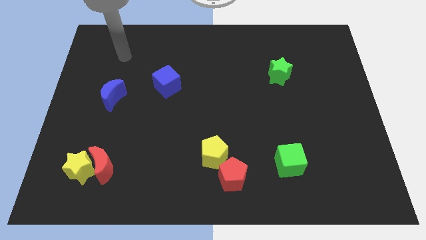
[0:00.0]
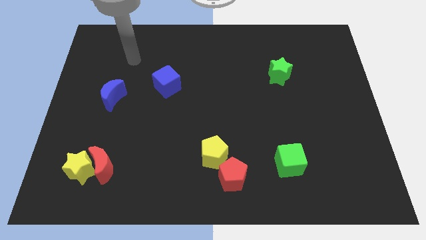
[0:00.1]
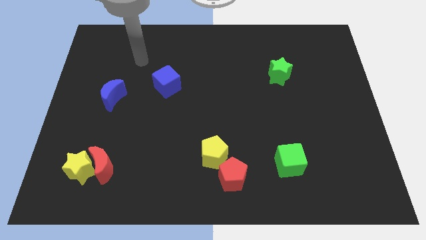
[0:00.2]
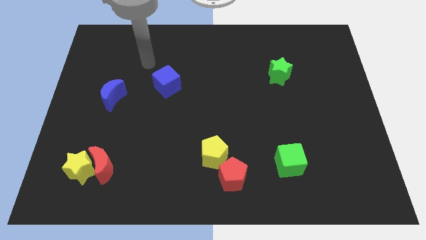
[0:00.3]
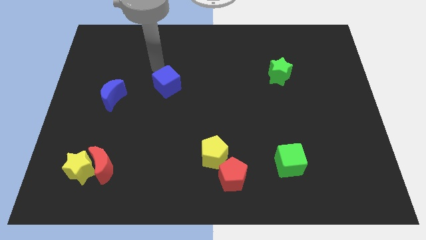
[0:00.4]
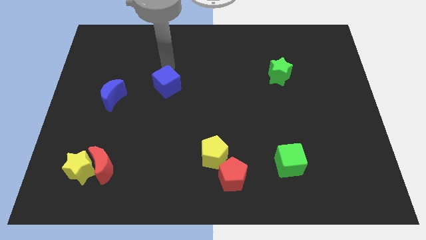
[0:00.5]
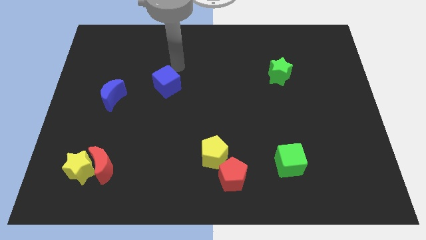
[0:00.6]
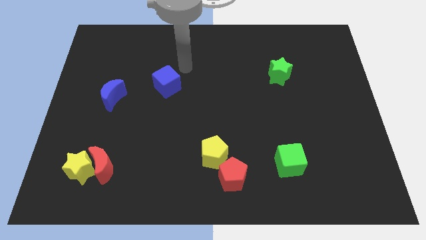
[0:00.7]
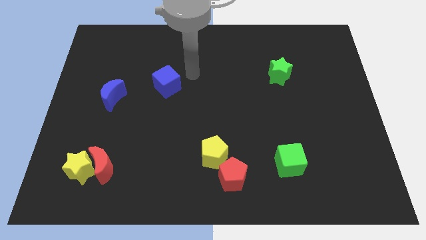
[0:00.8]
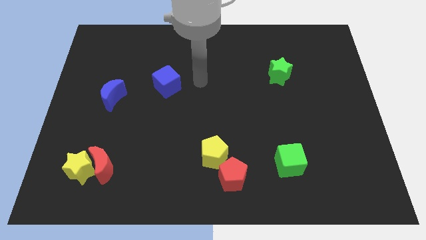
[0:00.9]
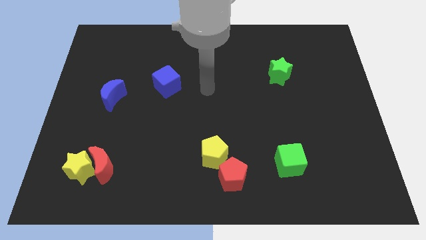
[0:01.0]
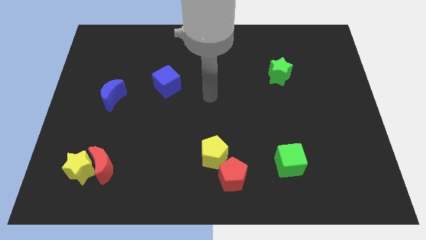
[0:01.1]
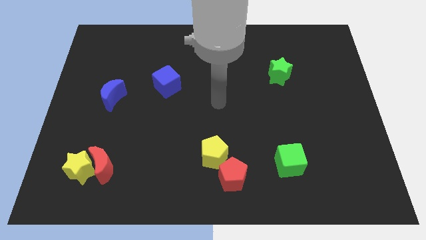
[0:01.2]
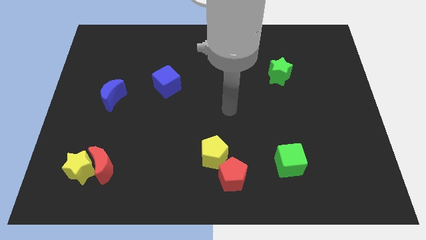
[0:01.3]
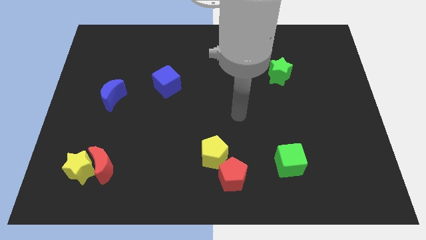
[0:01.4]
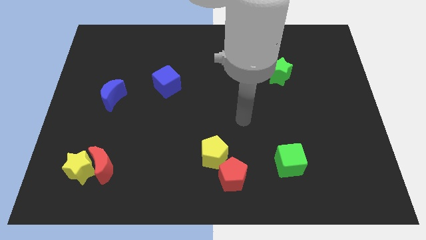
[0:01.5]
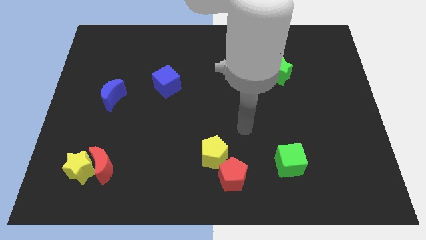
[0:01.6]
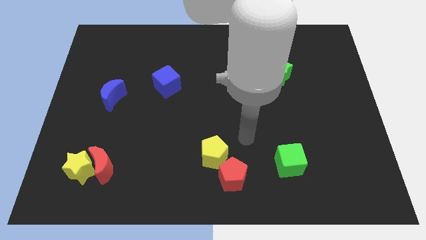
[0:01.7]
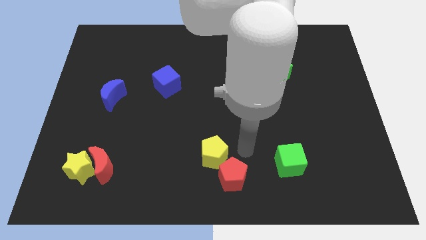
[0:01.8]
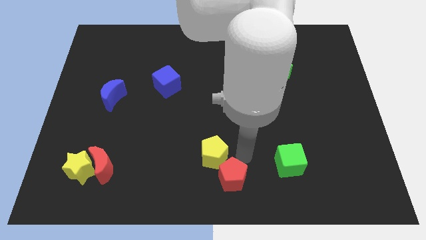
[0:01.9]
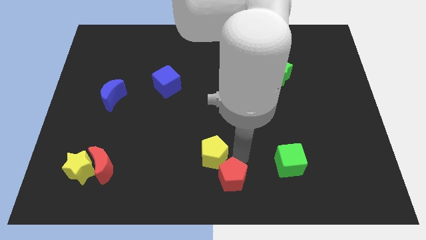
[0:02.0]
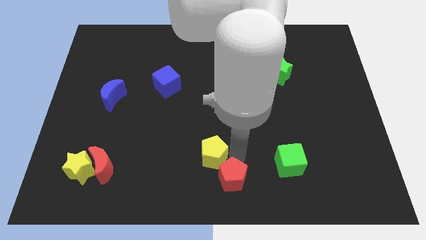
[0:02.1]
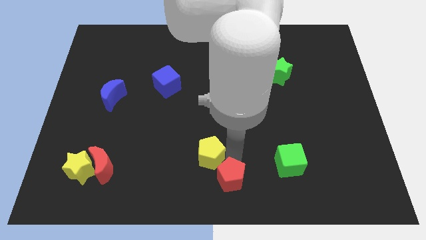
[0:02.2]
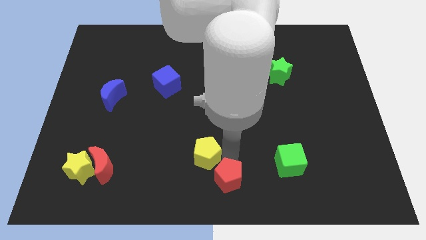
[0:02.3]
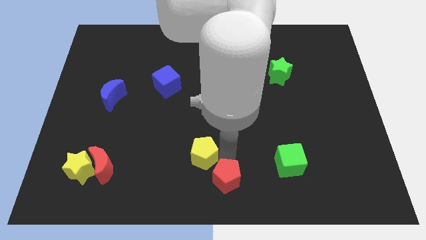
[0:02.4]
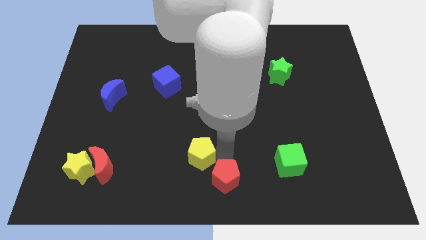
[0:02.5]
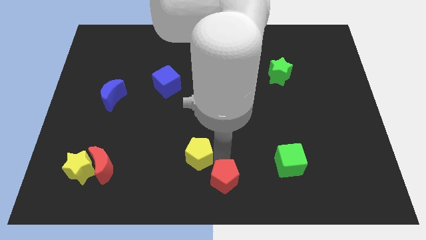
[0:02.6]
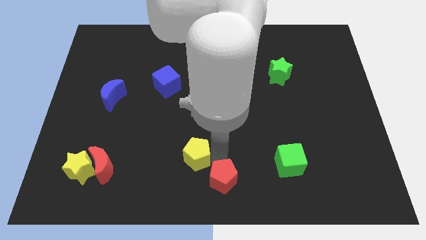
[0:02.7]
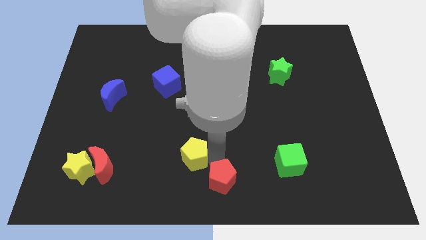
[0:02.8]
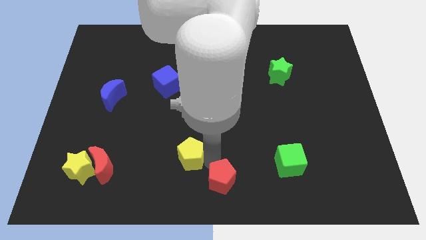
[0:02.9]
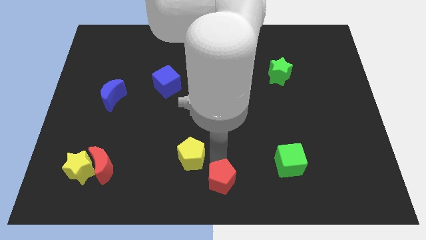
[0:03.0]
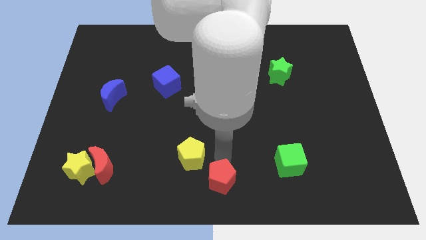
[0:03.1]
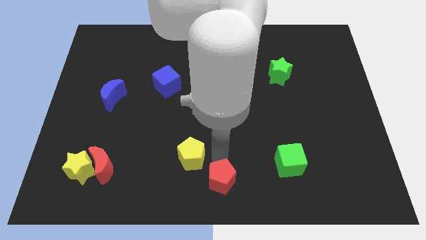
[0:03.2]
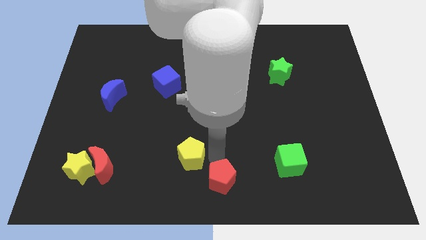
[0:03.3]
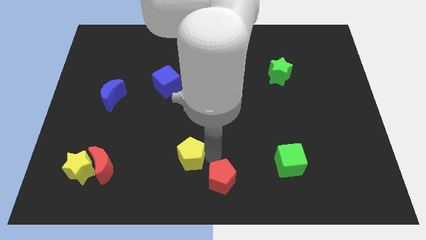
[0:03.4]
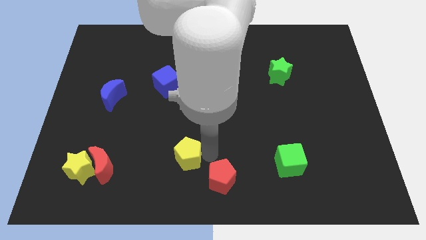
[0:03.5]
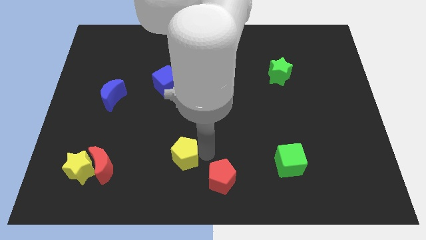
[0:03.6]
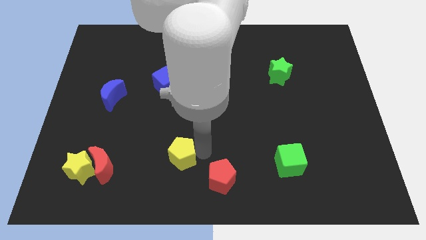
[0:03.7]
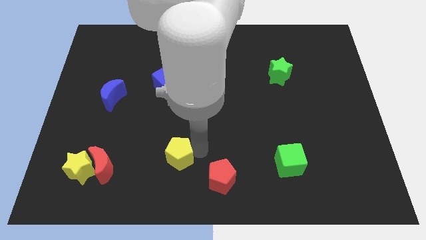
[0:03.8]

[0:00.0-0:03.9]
slide the yellow pentagon to the left a little bit

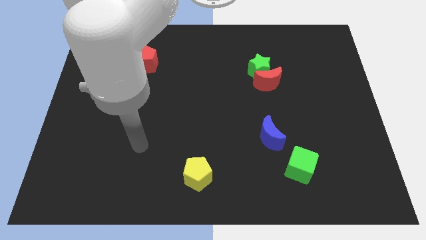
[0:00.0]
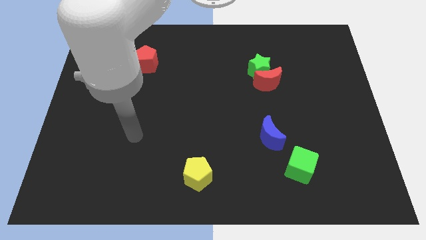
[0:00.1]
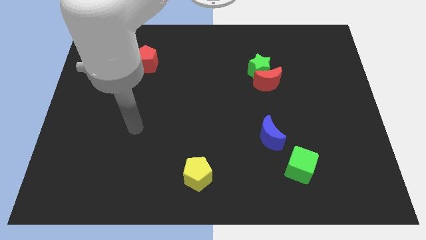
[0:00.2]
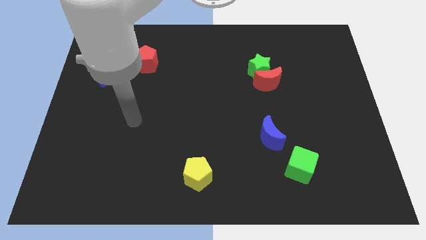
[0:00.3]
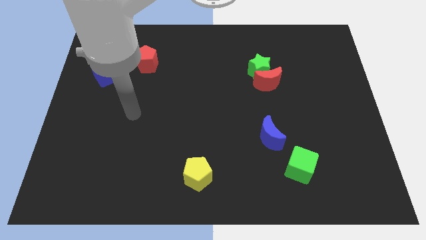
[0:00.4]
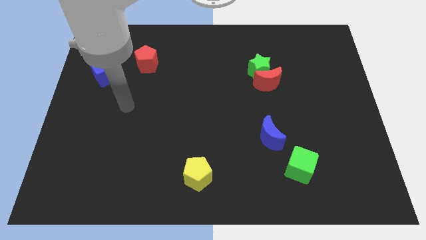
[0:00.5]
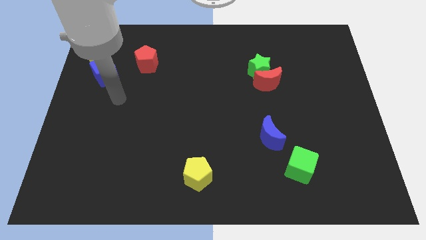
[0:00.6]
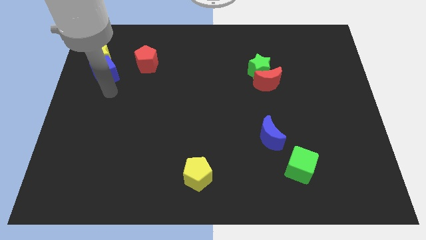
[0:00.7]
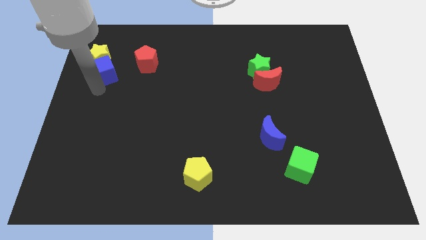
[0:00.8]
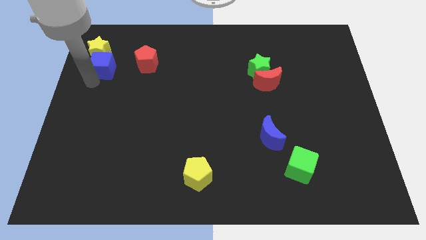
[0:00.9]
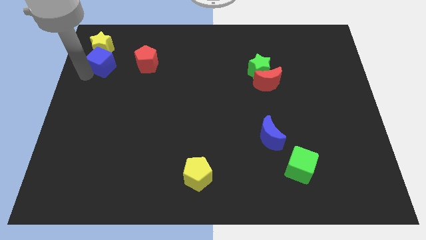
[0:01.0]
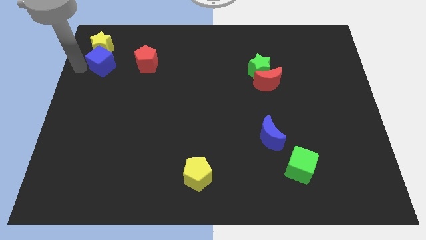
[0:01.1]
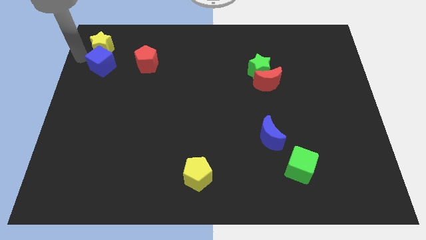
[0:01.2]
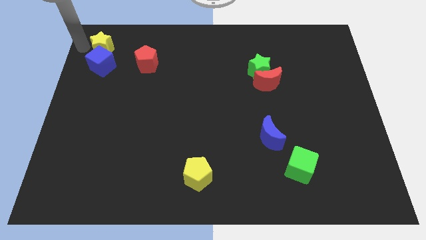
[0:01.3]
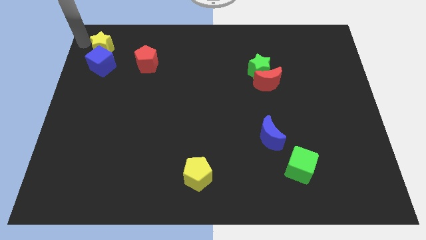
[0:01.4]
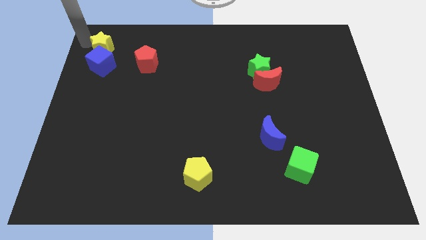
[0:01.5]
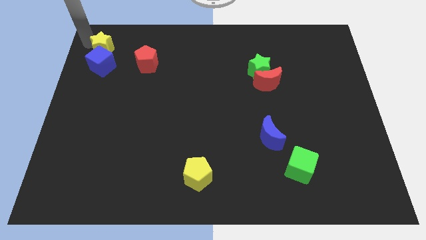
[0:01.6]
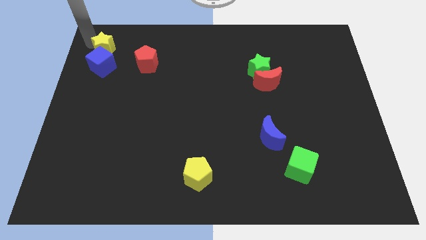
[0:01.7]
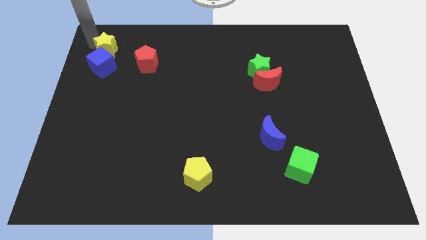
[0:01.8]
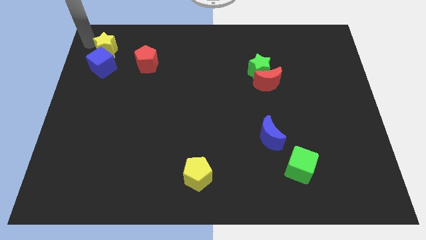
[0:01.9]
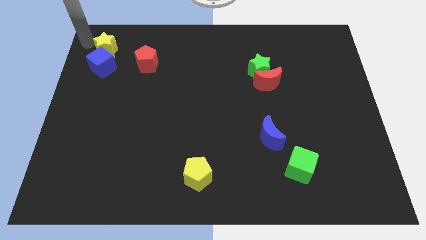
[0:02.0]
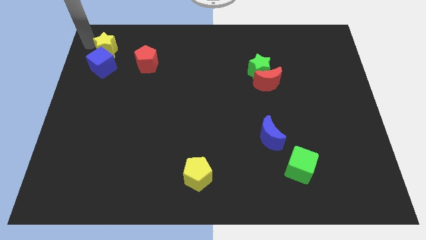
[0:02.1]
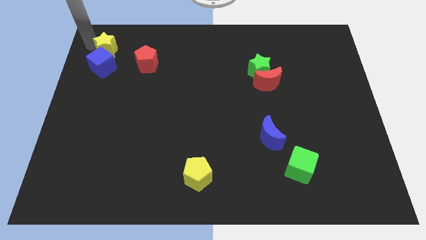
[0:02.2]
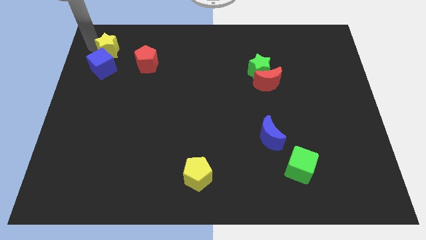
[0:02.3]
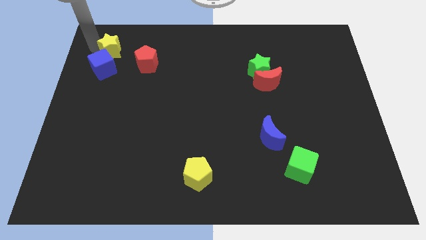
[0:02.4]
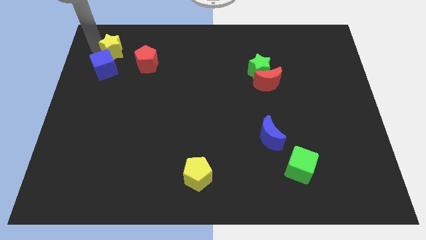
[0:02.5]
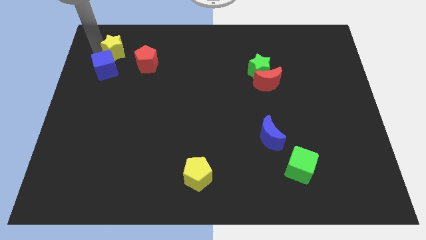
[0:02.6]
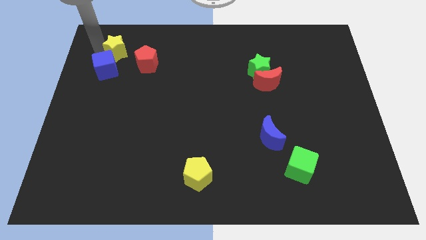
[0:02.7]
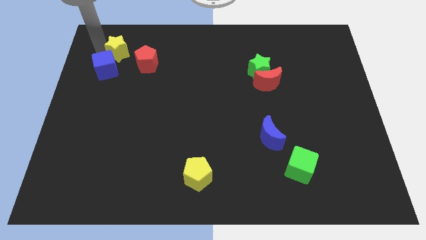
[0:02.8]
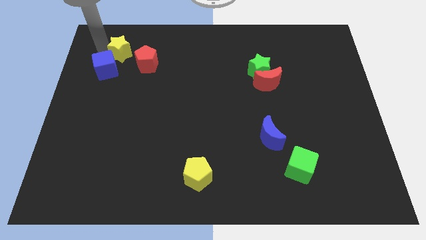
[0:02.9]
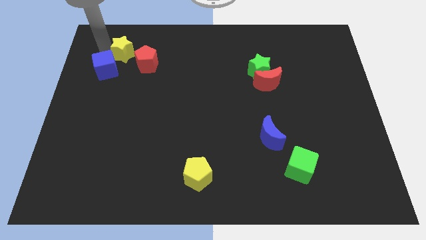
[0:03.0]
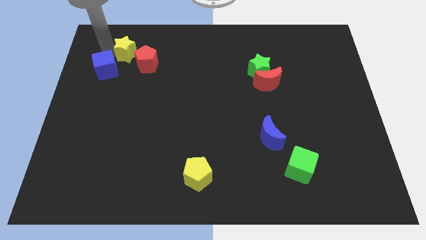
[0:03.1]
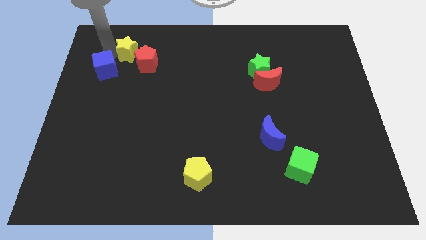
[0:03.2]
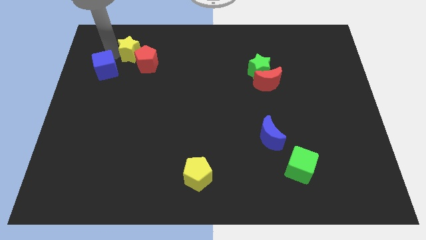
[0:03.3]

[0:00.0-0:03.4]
slightly slide the yellow star right

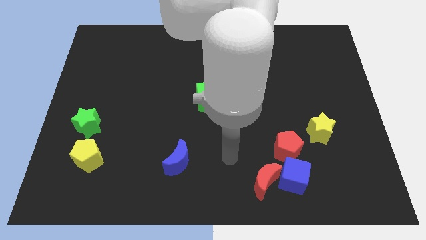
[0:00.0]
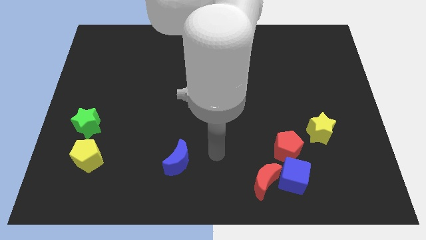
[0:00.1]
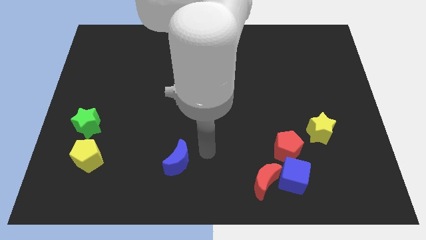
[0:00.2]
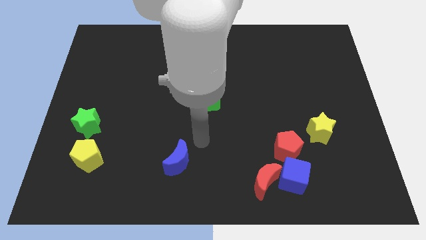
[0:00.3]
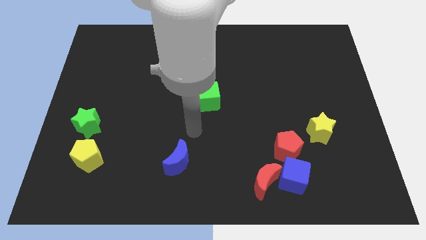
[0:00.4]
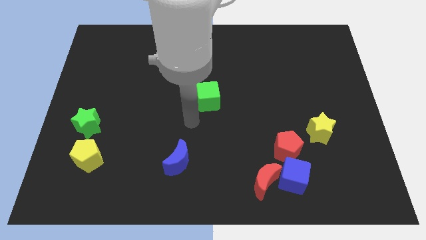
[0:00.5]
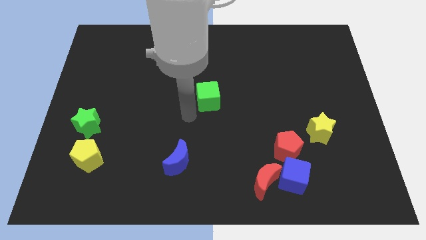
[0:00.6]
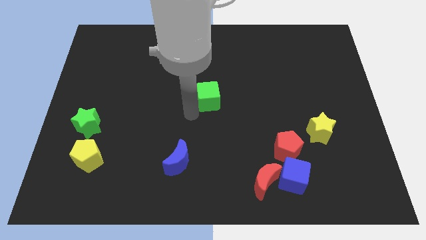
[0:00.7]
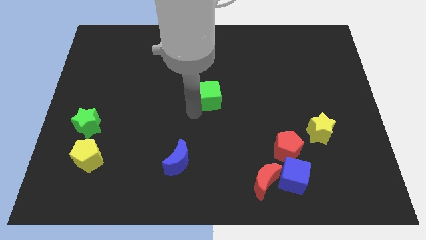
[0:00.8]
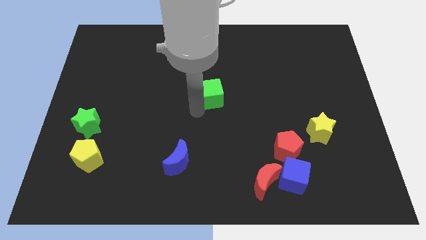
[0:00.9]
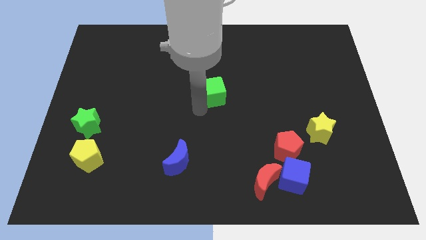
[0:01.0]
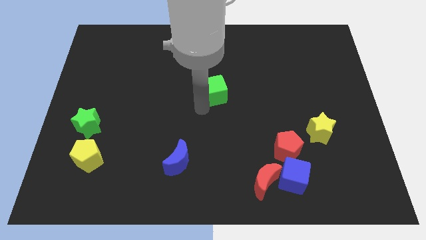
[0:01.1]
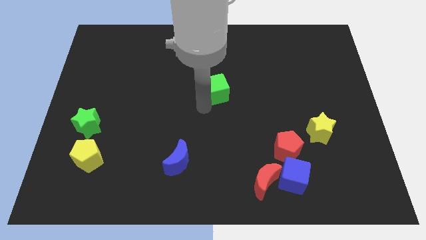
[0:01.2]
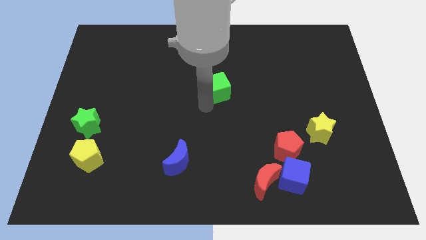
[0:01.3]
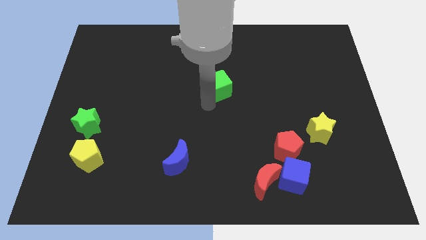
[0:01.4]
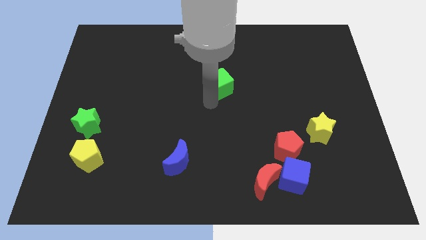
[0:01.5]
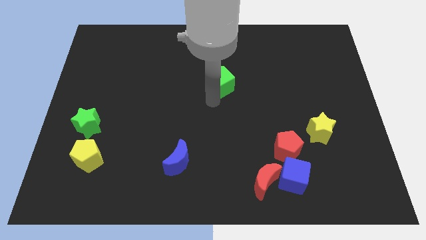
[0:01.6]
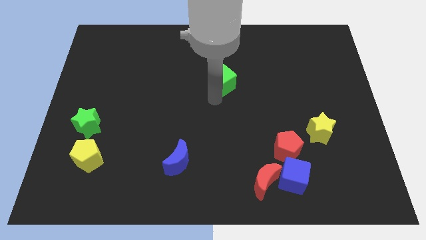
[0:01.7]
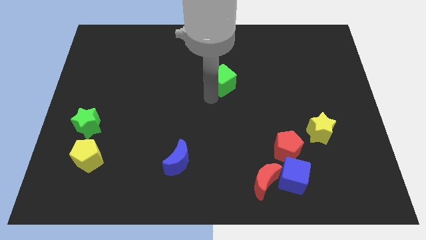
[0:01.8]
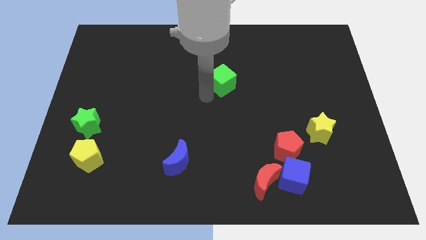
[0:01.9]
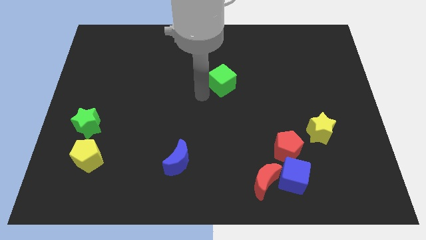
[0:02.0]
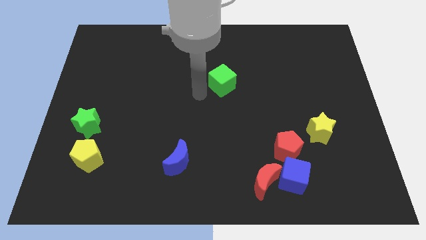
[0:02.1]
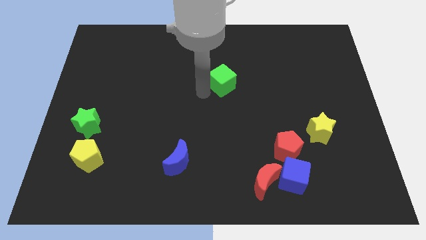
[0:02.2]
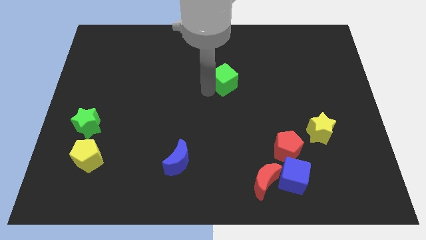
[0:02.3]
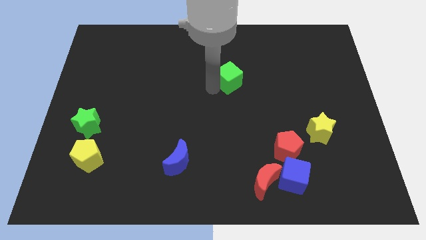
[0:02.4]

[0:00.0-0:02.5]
slightly push the green cube up and then right
